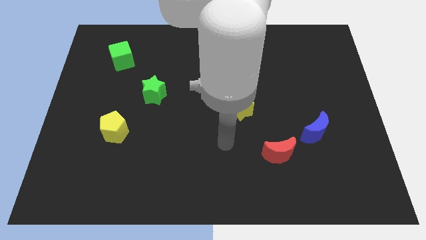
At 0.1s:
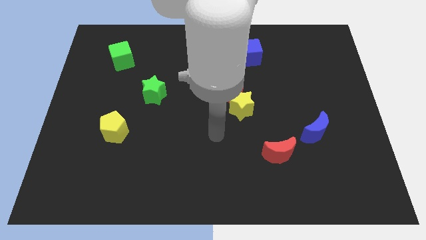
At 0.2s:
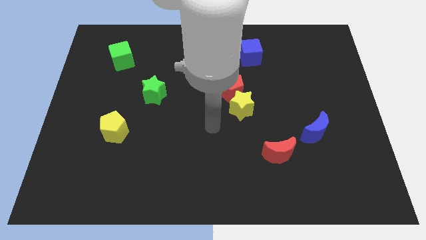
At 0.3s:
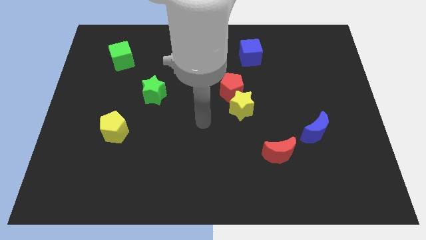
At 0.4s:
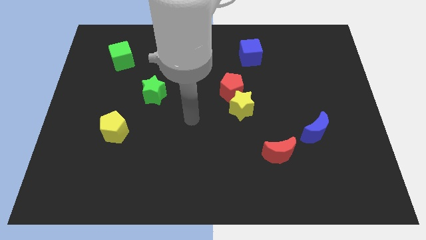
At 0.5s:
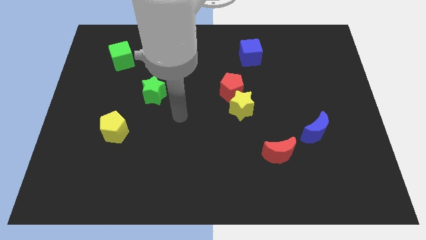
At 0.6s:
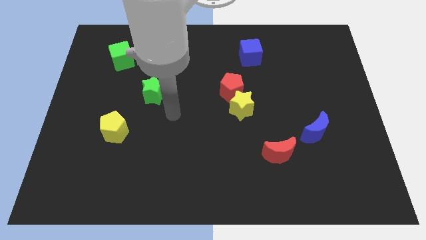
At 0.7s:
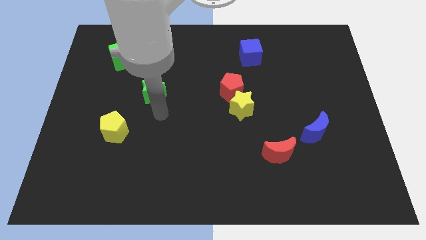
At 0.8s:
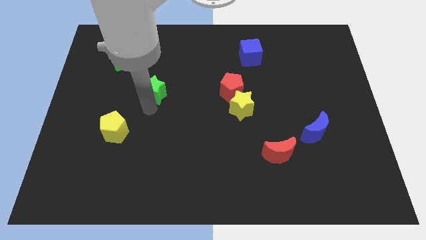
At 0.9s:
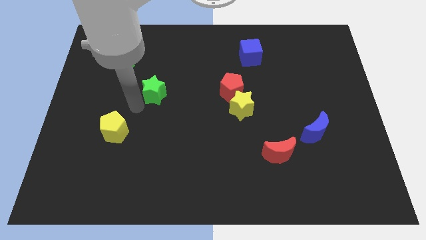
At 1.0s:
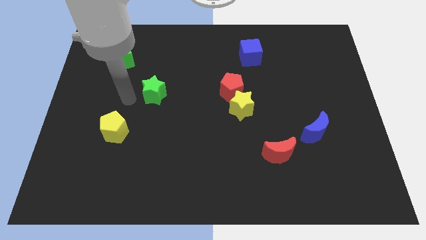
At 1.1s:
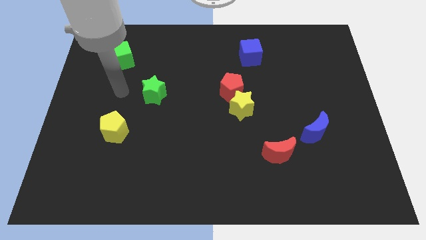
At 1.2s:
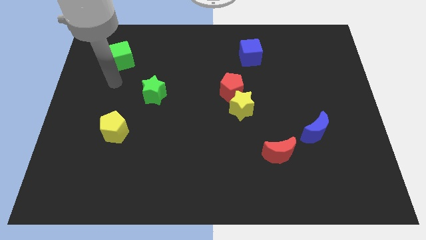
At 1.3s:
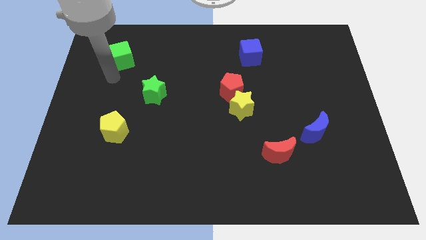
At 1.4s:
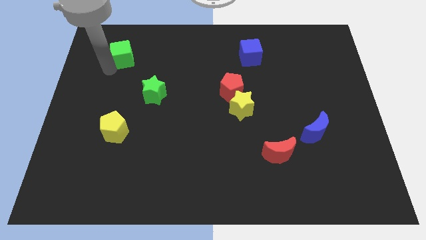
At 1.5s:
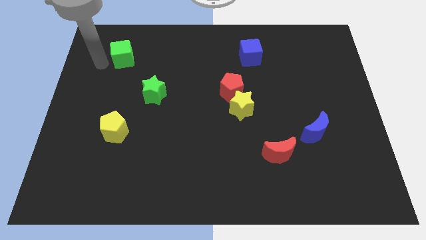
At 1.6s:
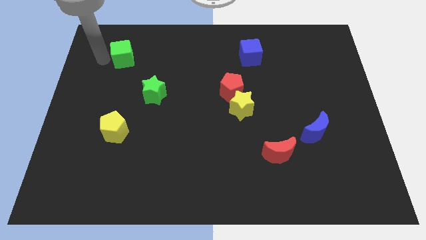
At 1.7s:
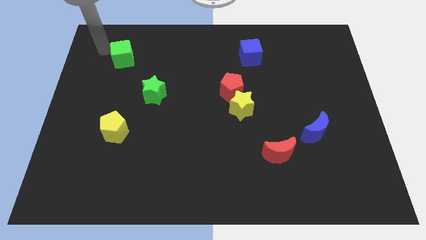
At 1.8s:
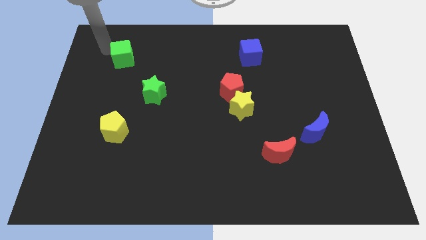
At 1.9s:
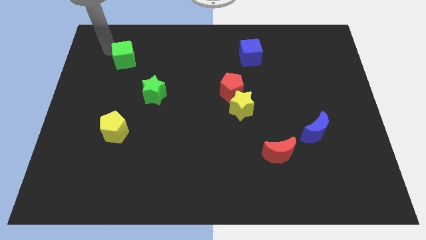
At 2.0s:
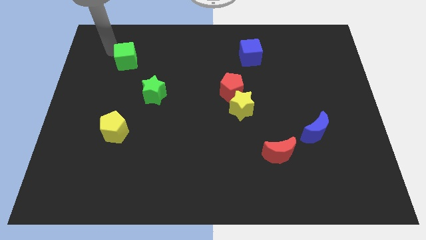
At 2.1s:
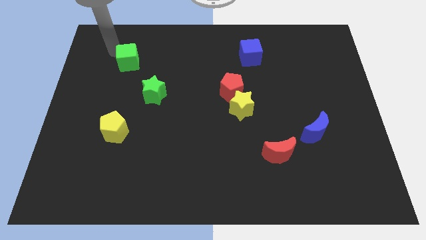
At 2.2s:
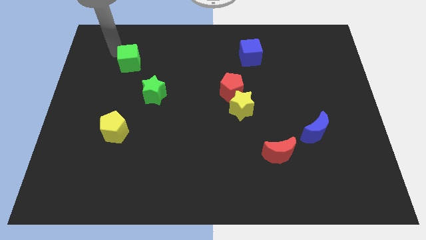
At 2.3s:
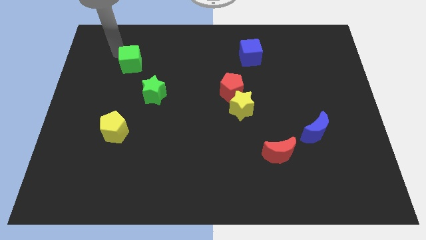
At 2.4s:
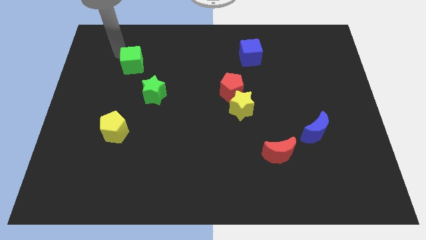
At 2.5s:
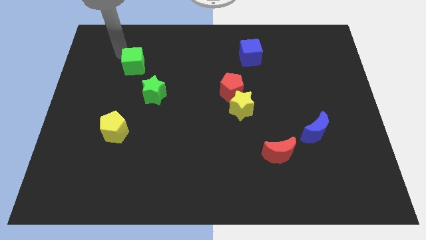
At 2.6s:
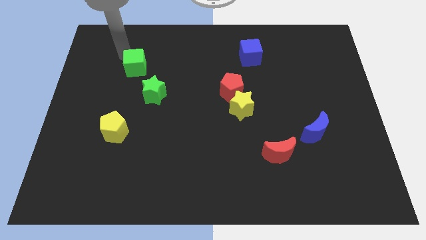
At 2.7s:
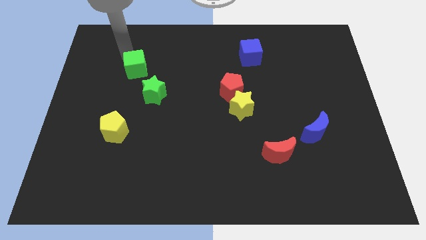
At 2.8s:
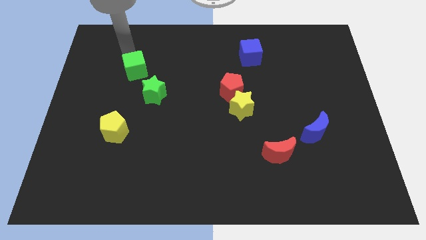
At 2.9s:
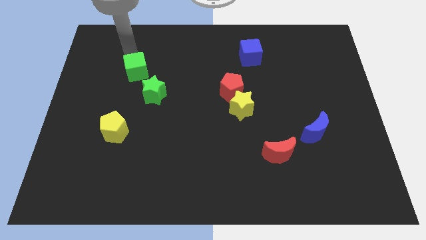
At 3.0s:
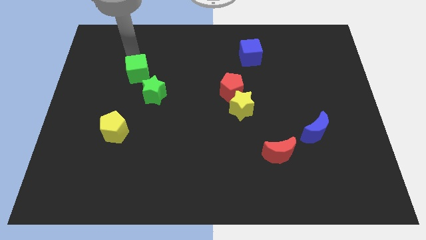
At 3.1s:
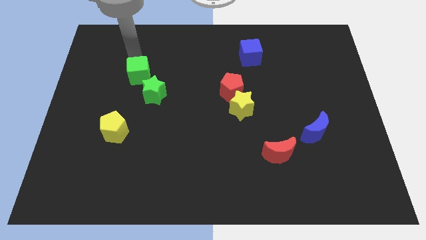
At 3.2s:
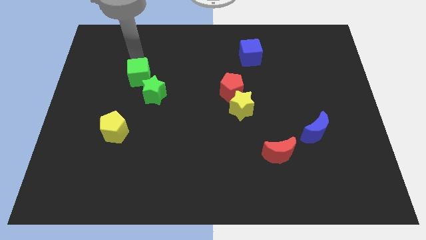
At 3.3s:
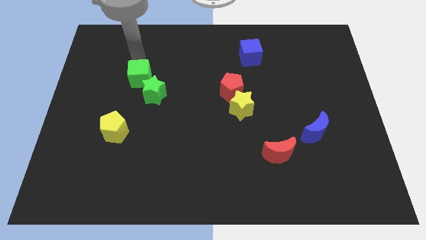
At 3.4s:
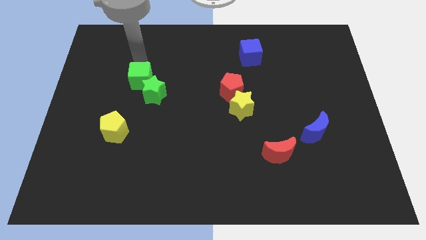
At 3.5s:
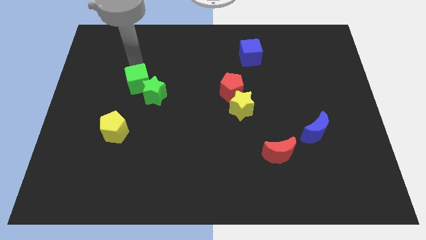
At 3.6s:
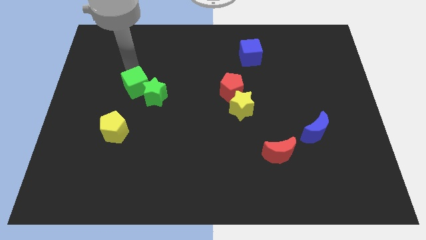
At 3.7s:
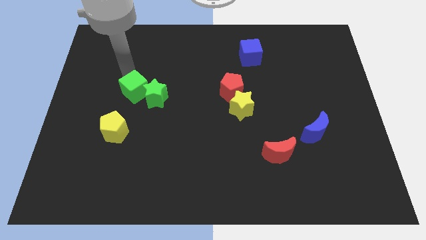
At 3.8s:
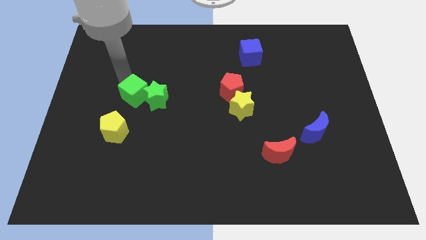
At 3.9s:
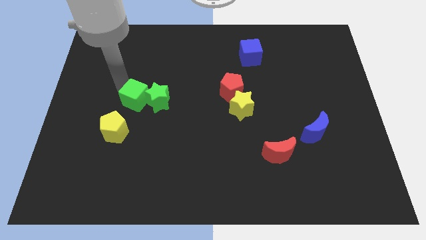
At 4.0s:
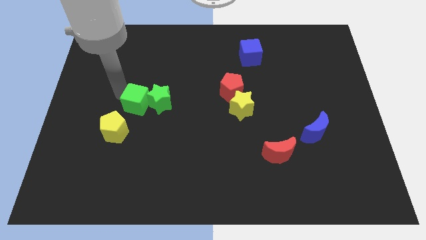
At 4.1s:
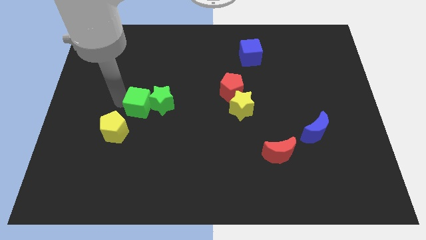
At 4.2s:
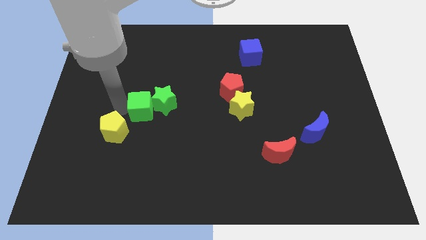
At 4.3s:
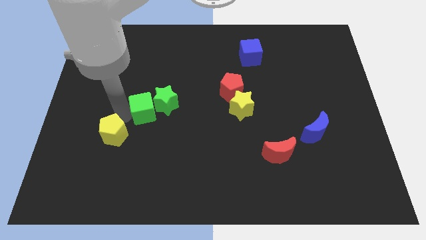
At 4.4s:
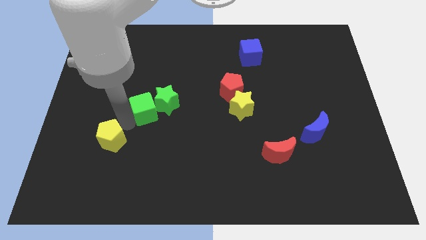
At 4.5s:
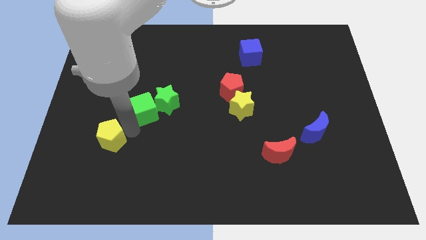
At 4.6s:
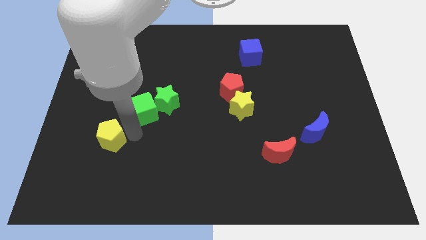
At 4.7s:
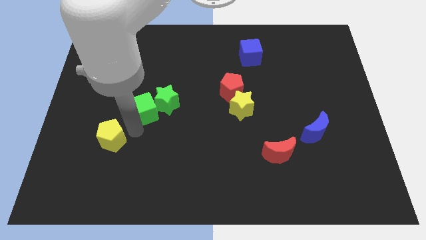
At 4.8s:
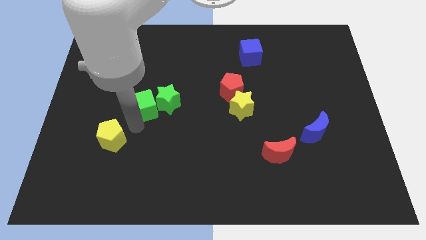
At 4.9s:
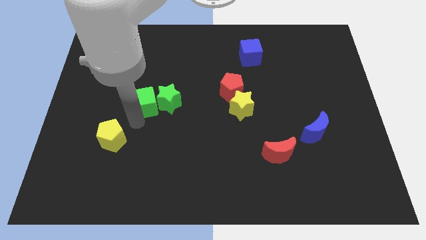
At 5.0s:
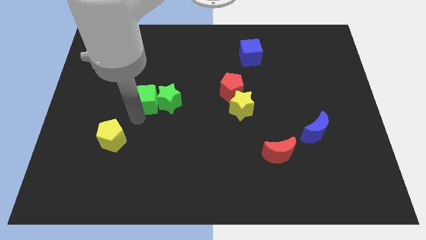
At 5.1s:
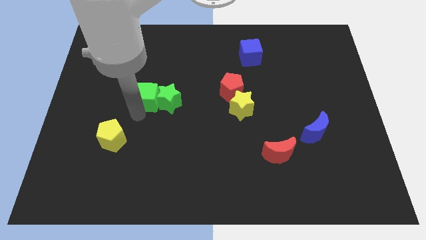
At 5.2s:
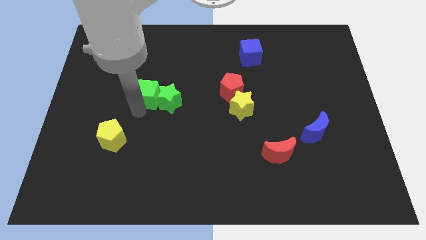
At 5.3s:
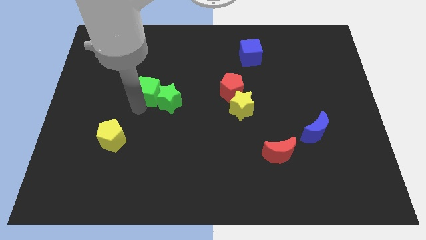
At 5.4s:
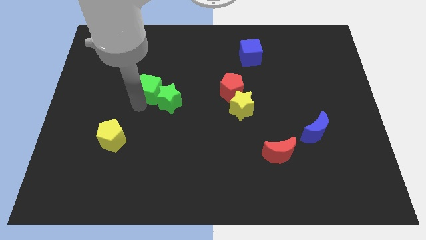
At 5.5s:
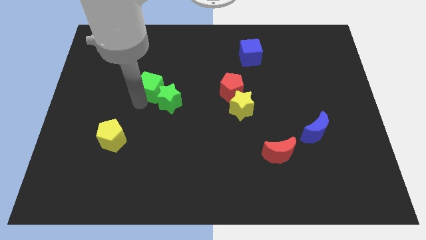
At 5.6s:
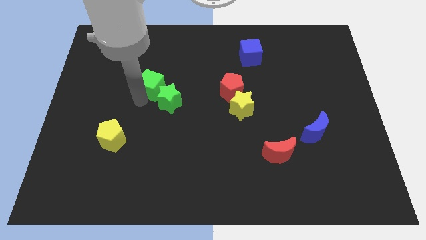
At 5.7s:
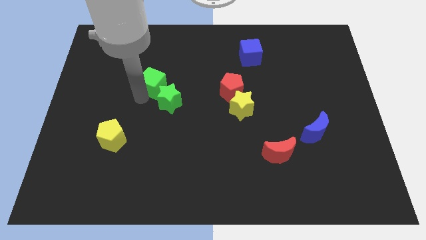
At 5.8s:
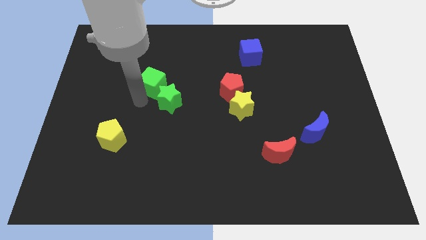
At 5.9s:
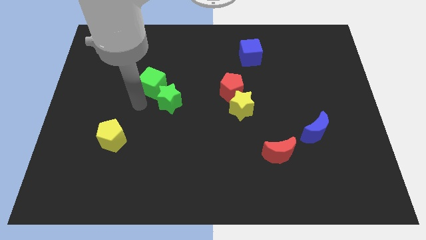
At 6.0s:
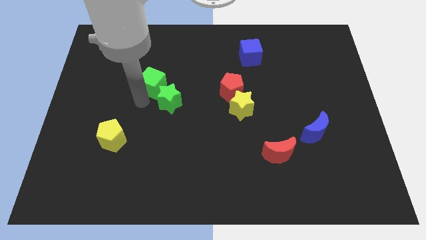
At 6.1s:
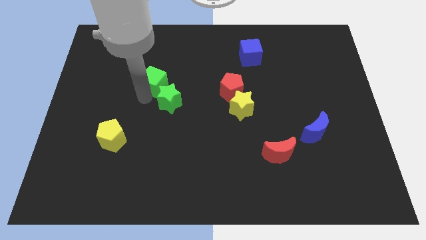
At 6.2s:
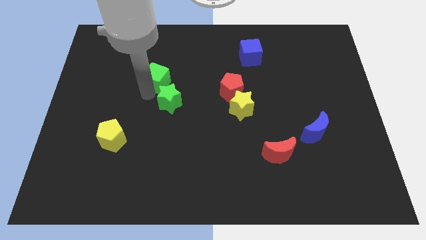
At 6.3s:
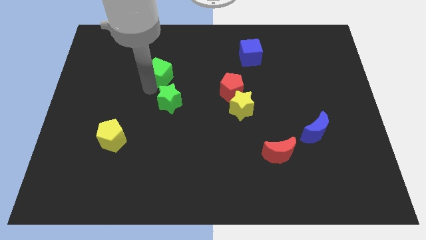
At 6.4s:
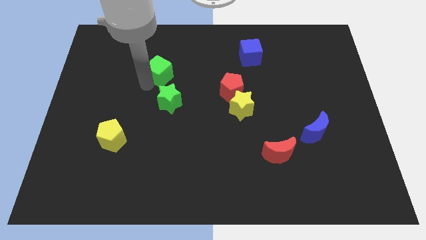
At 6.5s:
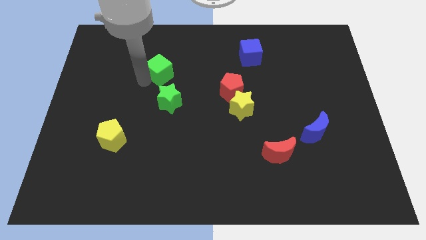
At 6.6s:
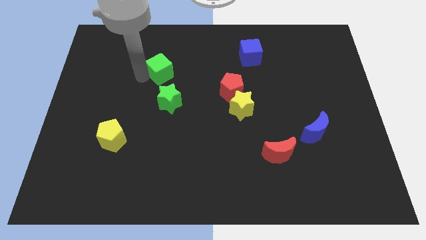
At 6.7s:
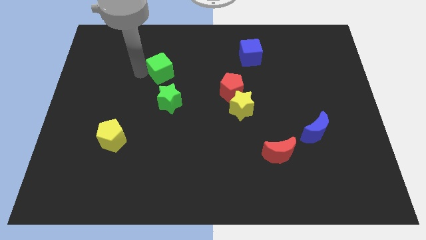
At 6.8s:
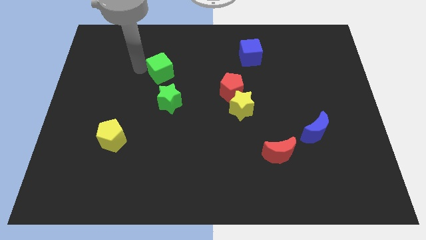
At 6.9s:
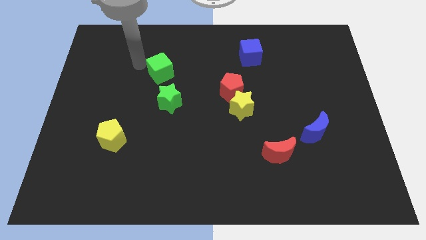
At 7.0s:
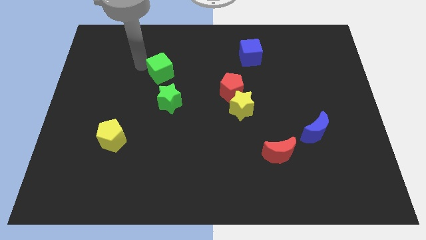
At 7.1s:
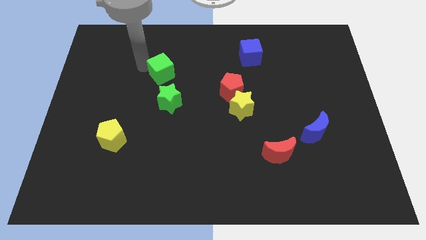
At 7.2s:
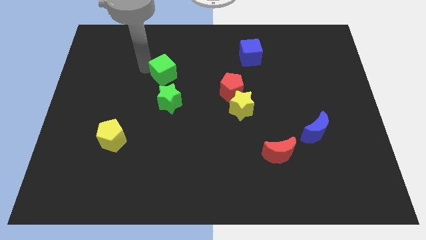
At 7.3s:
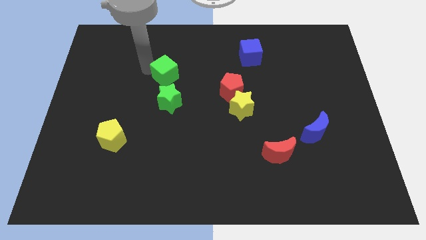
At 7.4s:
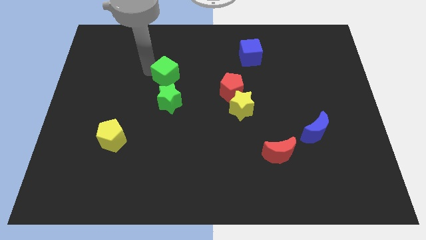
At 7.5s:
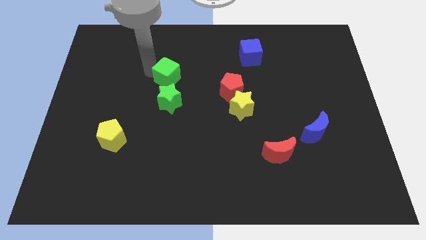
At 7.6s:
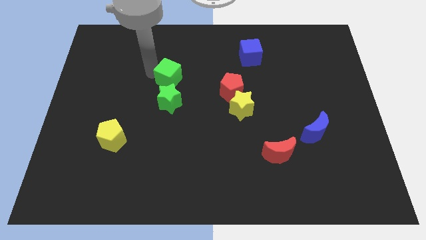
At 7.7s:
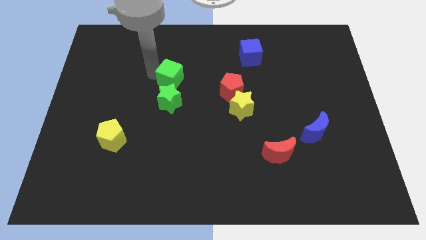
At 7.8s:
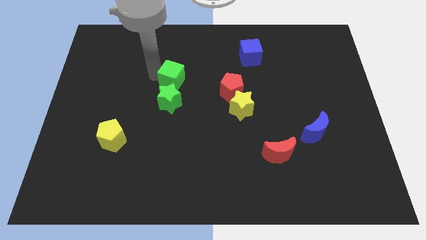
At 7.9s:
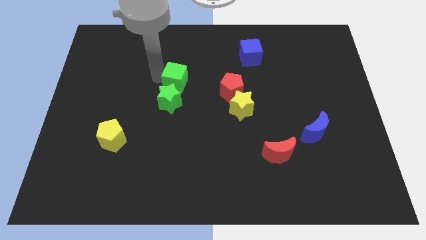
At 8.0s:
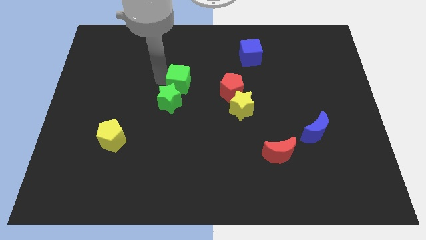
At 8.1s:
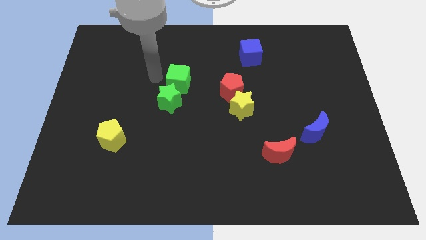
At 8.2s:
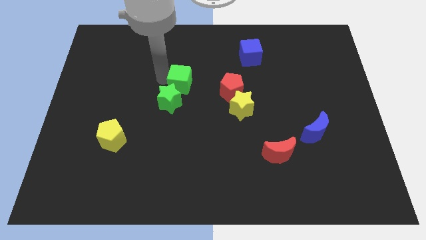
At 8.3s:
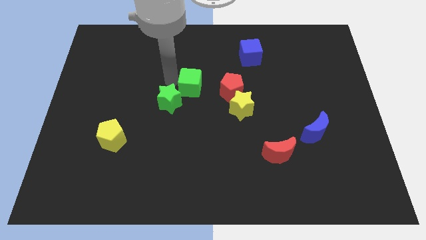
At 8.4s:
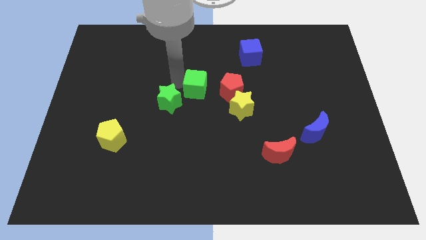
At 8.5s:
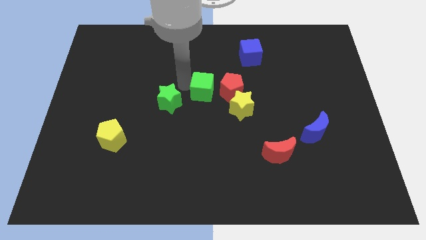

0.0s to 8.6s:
put the green cube to the top left side of the yellow star
